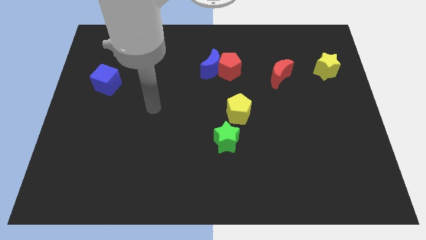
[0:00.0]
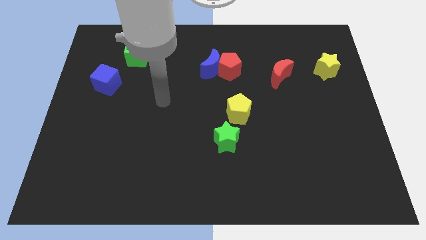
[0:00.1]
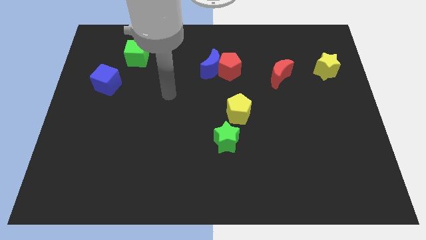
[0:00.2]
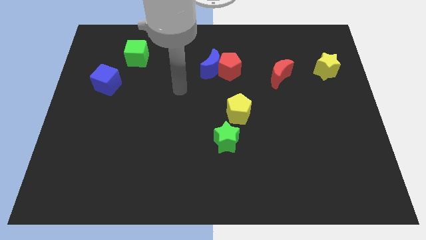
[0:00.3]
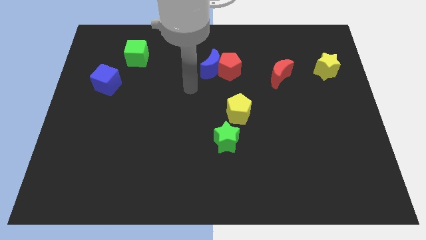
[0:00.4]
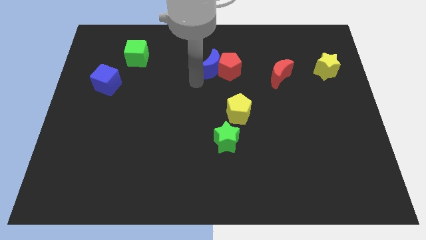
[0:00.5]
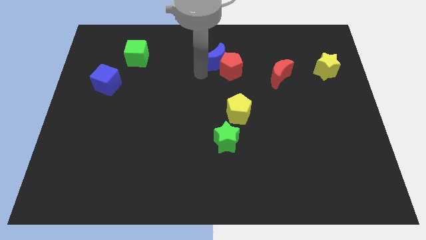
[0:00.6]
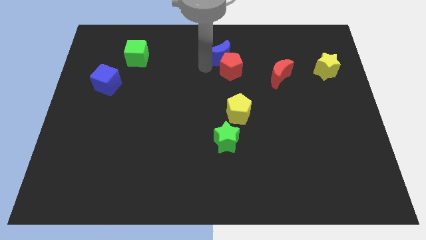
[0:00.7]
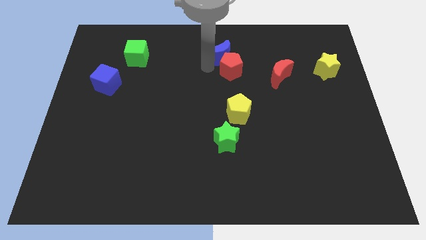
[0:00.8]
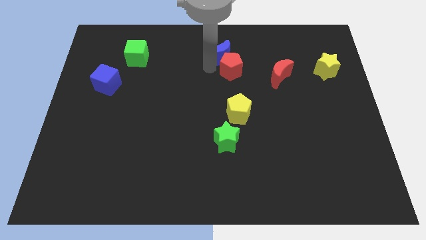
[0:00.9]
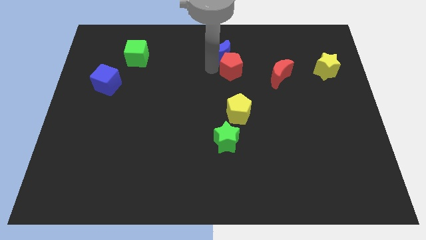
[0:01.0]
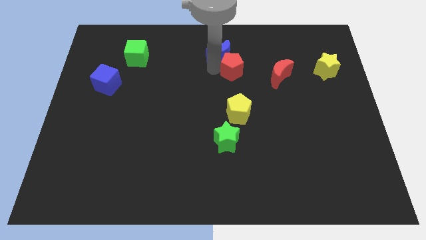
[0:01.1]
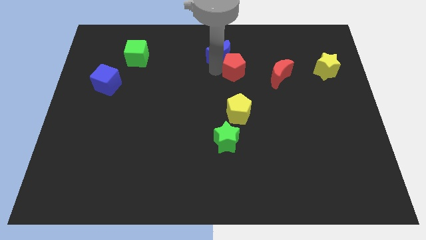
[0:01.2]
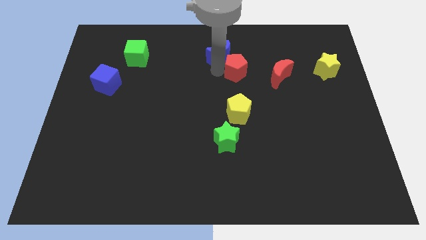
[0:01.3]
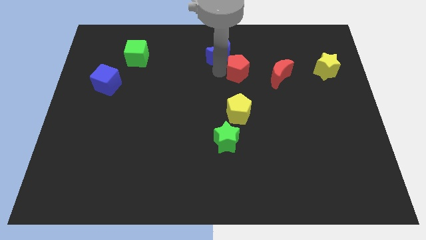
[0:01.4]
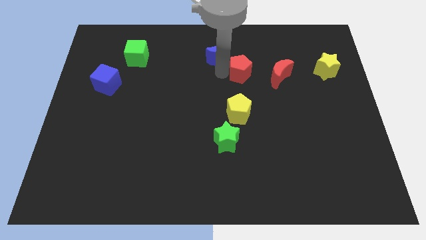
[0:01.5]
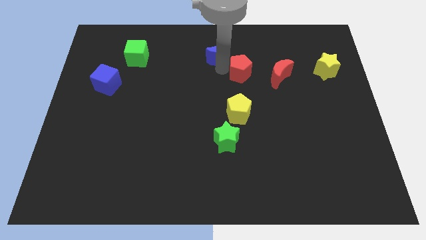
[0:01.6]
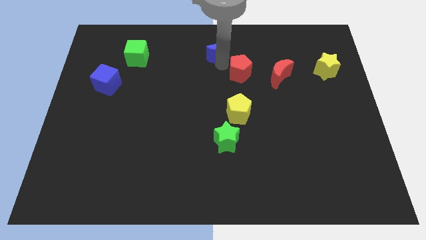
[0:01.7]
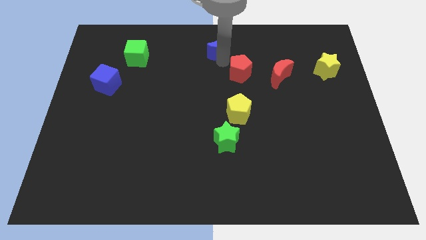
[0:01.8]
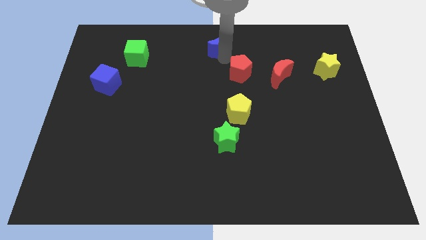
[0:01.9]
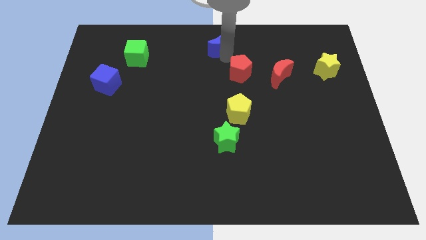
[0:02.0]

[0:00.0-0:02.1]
pull the red pentagon apart from the blue moon

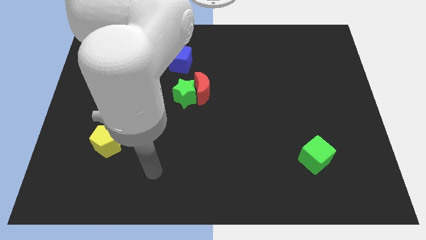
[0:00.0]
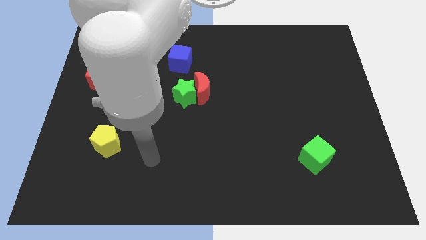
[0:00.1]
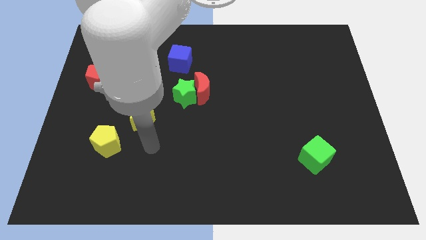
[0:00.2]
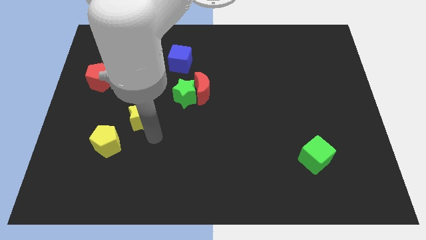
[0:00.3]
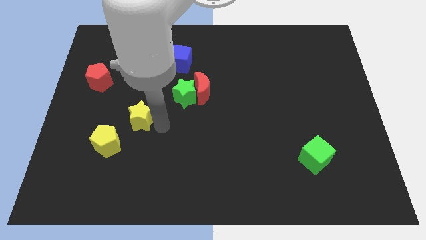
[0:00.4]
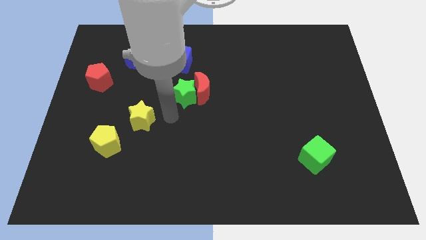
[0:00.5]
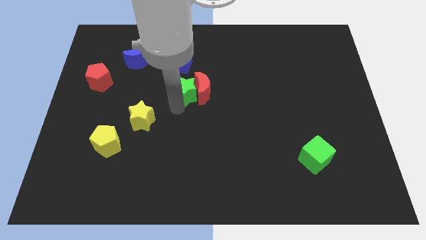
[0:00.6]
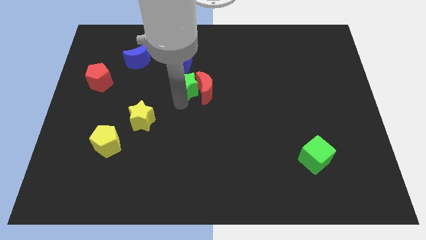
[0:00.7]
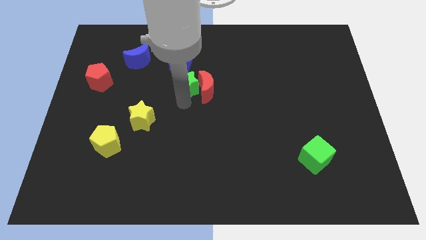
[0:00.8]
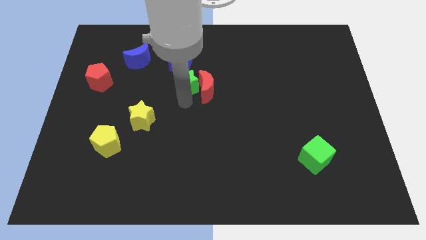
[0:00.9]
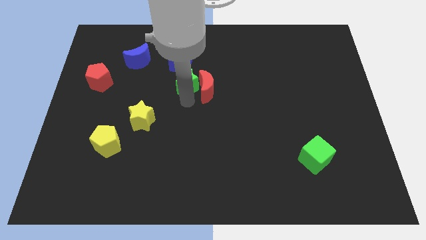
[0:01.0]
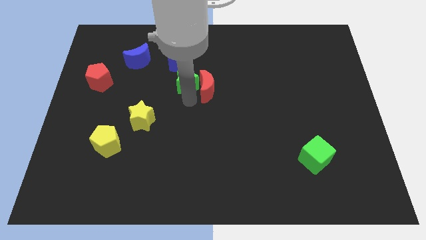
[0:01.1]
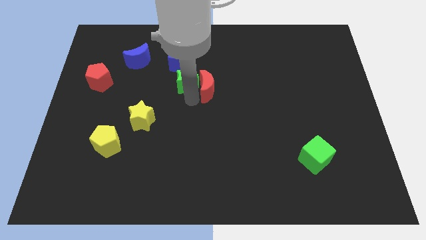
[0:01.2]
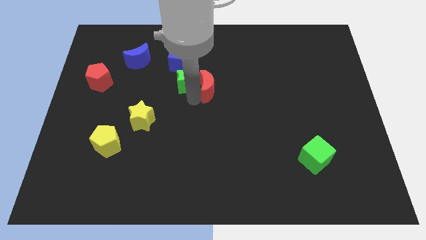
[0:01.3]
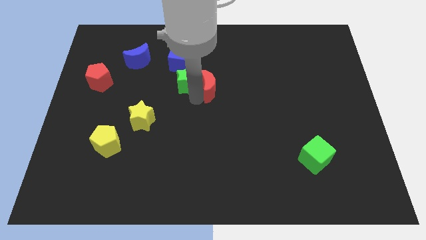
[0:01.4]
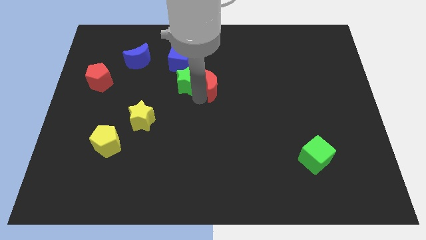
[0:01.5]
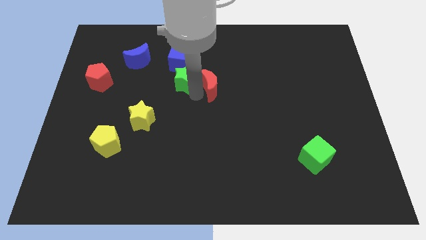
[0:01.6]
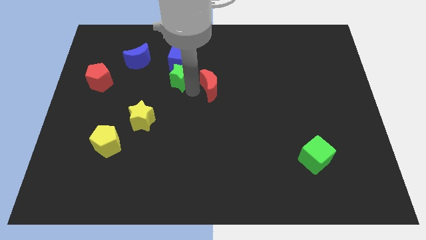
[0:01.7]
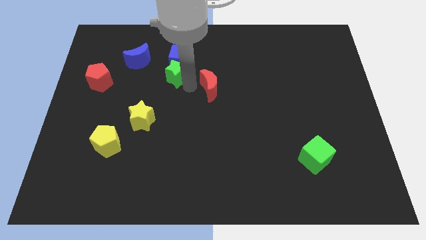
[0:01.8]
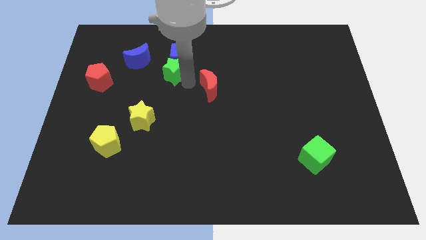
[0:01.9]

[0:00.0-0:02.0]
pull the red moon apart from the green star

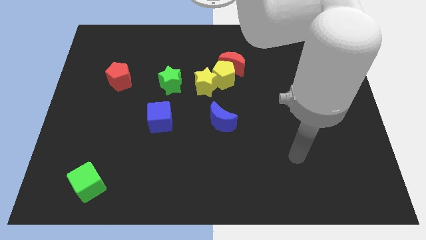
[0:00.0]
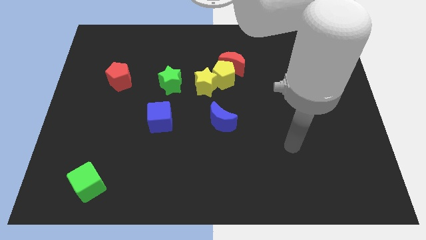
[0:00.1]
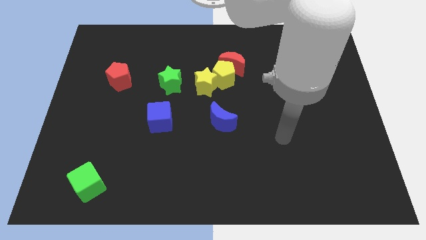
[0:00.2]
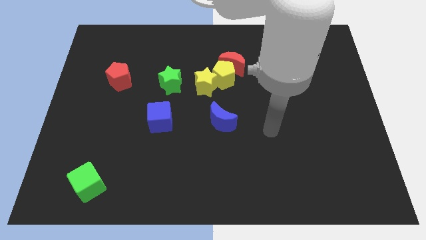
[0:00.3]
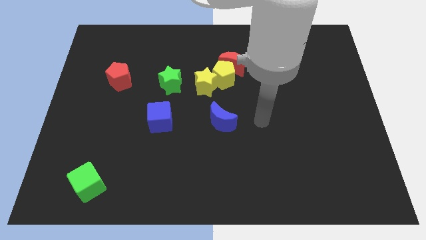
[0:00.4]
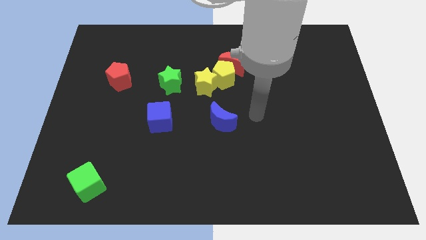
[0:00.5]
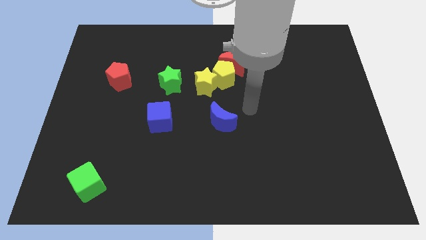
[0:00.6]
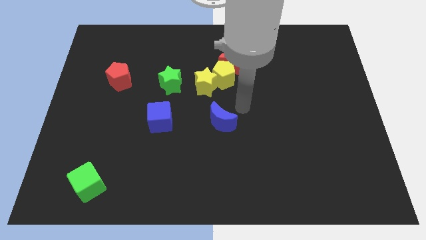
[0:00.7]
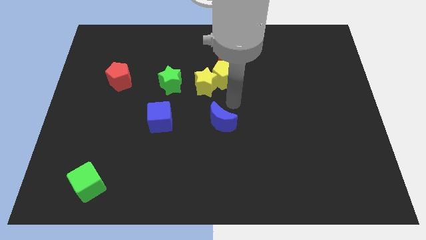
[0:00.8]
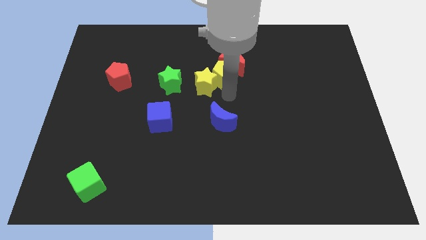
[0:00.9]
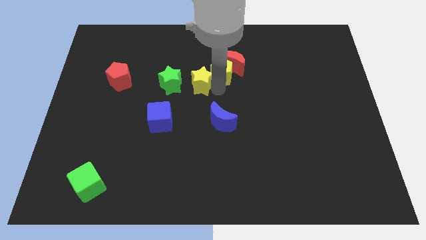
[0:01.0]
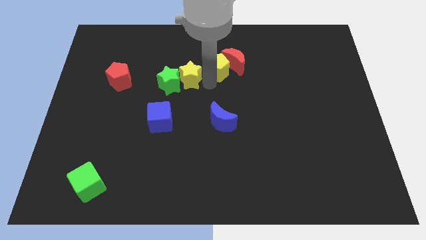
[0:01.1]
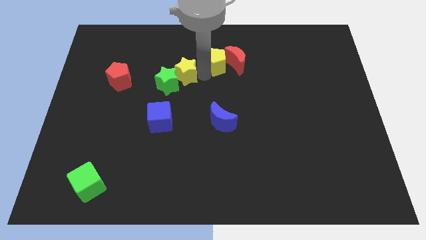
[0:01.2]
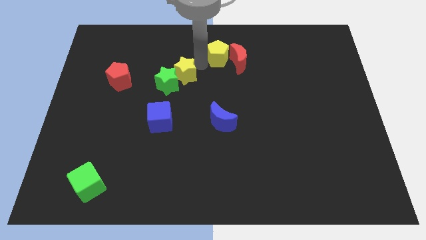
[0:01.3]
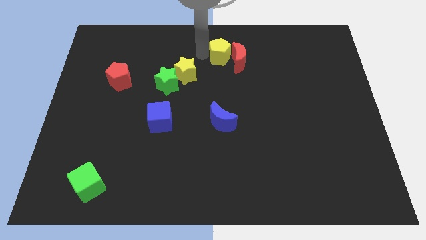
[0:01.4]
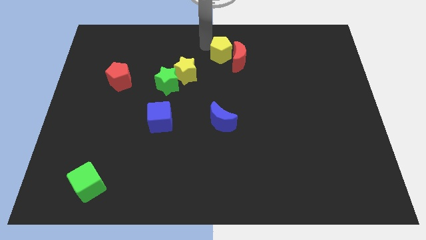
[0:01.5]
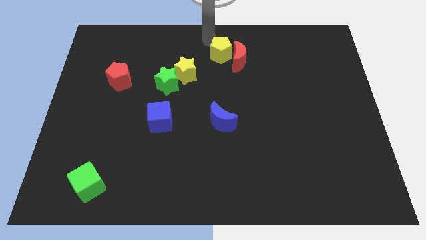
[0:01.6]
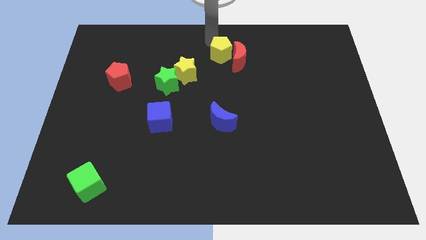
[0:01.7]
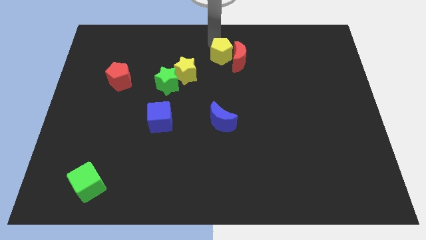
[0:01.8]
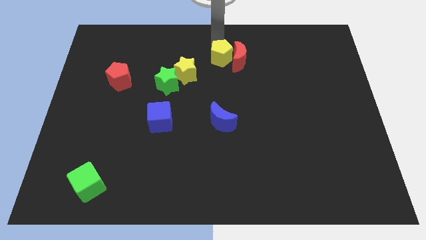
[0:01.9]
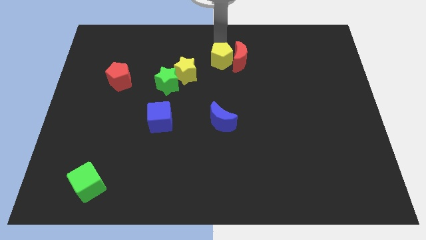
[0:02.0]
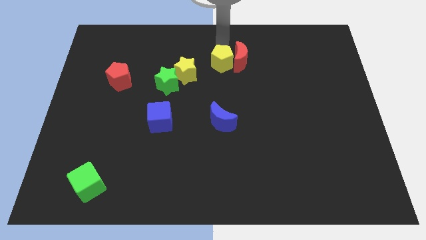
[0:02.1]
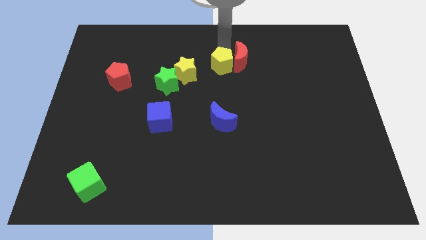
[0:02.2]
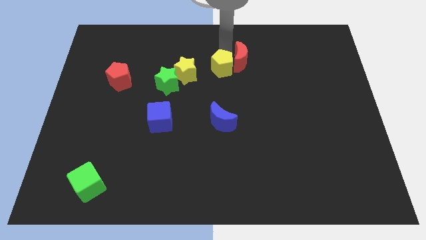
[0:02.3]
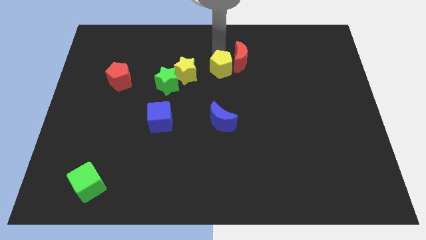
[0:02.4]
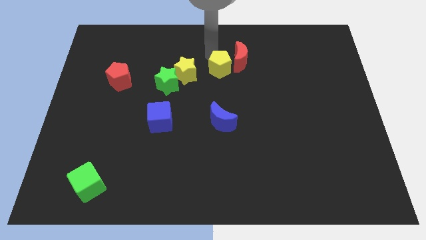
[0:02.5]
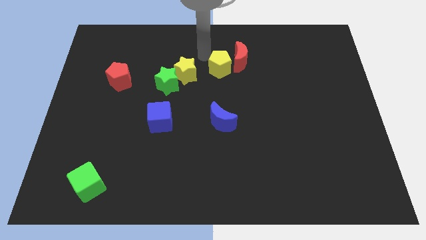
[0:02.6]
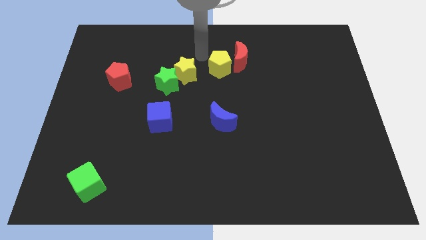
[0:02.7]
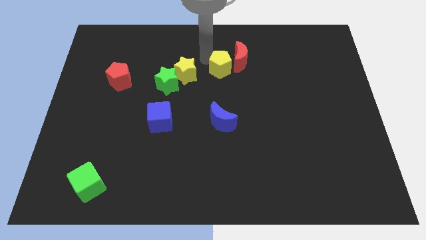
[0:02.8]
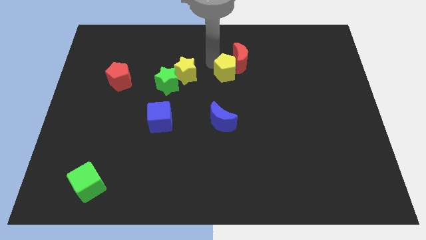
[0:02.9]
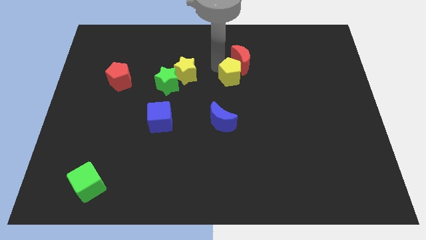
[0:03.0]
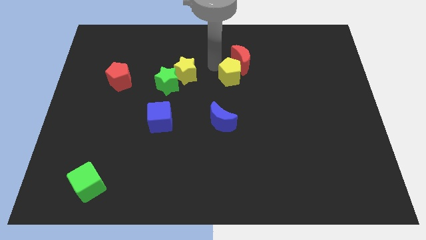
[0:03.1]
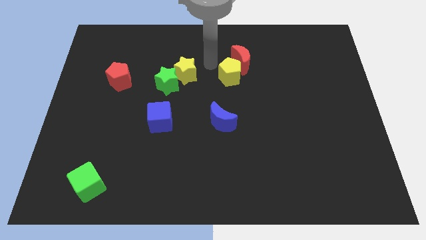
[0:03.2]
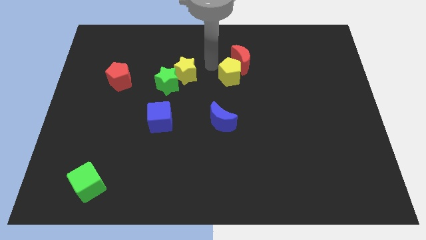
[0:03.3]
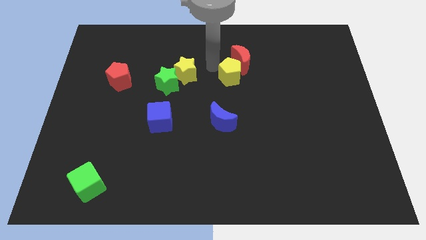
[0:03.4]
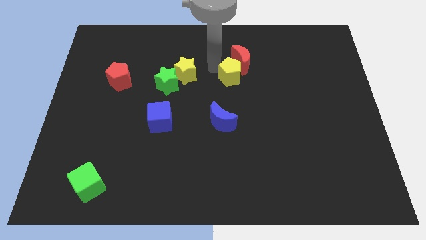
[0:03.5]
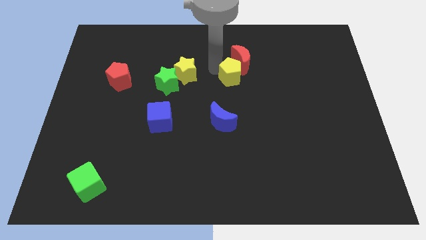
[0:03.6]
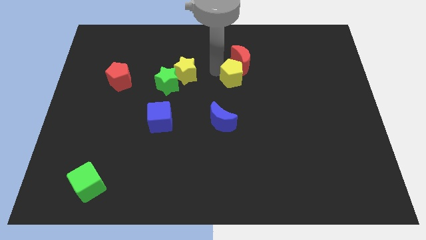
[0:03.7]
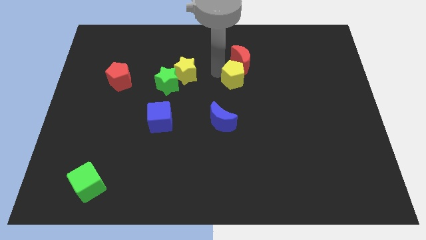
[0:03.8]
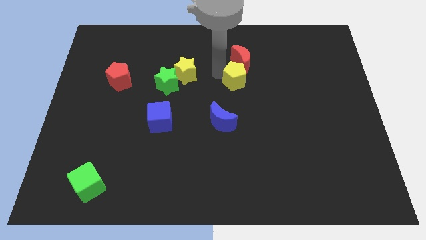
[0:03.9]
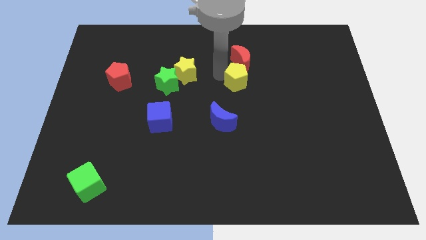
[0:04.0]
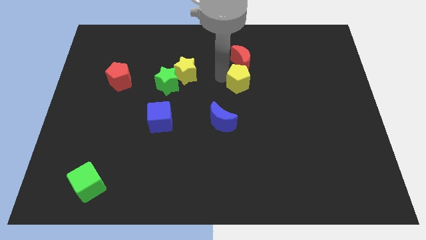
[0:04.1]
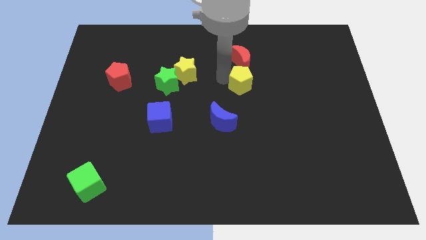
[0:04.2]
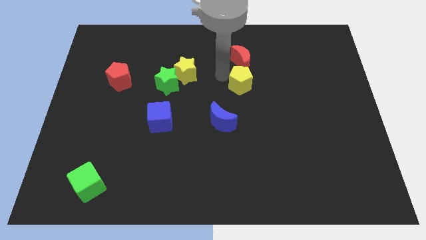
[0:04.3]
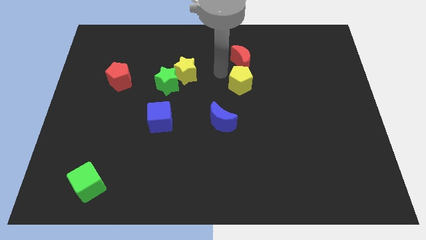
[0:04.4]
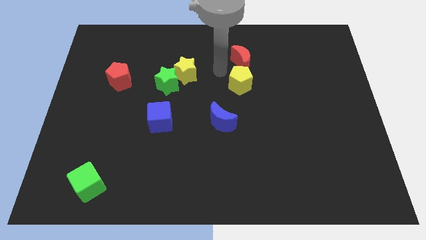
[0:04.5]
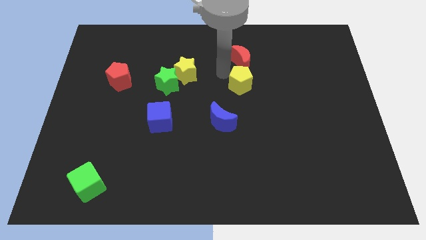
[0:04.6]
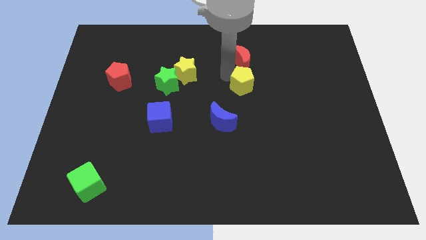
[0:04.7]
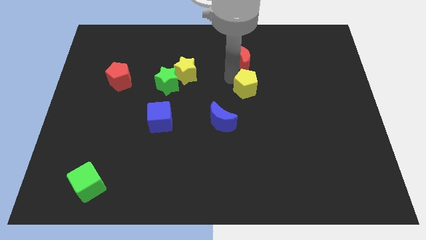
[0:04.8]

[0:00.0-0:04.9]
pull the yellow pentagon apart from the red moon and yellow star

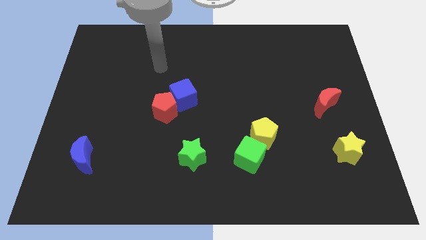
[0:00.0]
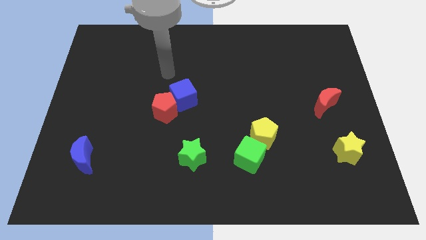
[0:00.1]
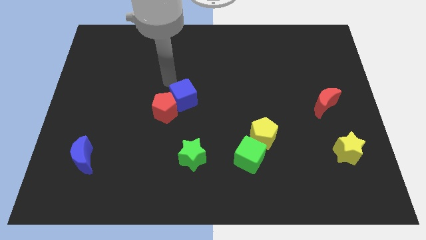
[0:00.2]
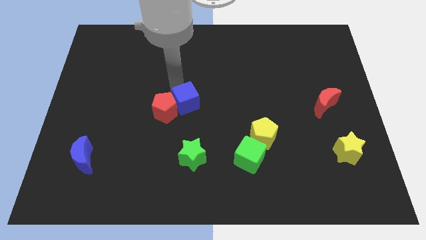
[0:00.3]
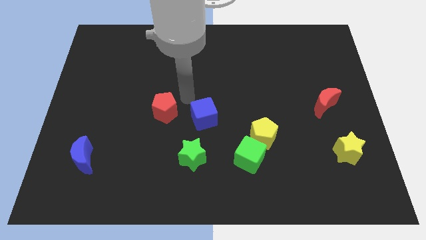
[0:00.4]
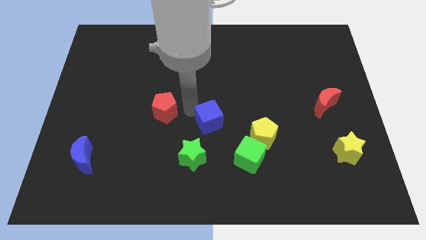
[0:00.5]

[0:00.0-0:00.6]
pull the red pentagon apart from the blue cube
